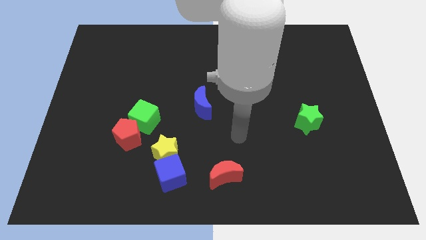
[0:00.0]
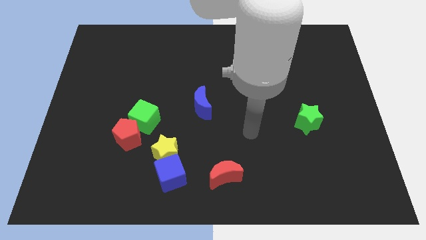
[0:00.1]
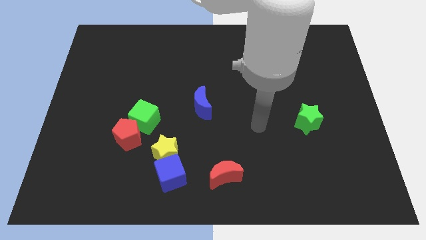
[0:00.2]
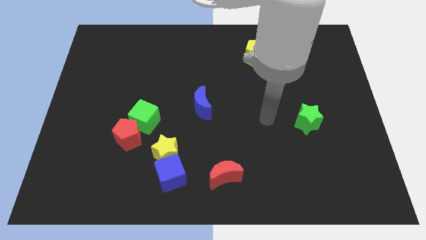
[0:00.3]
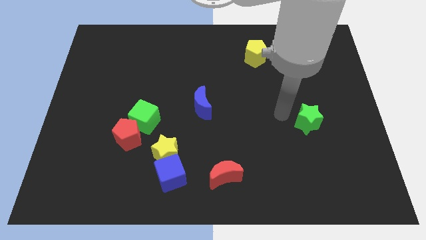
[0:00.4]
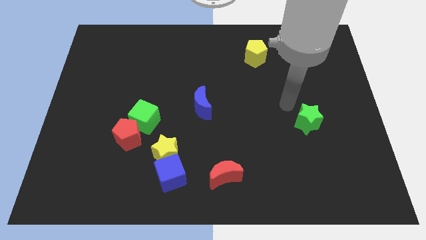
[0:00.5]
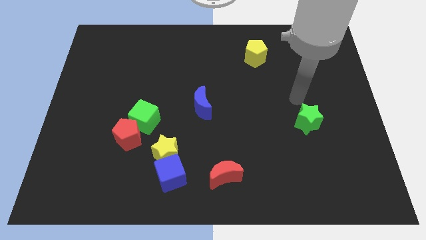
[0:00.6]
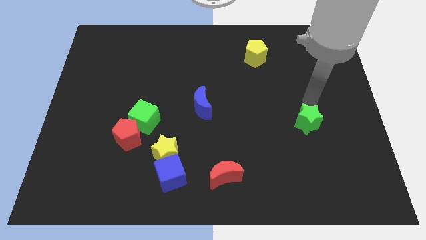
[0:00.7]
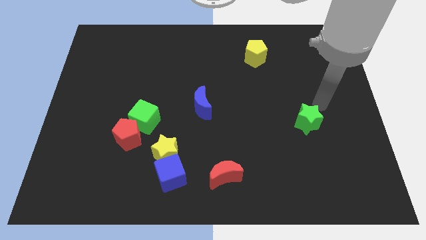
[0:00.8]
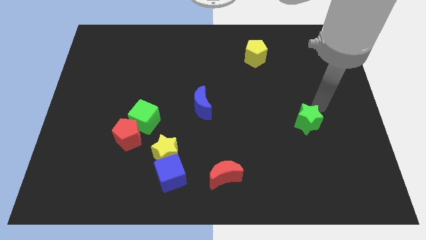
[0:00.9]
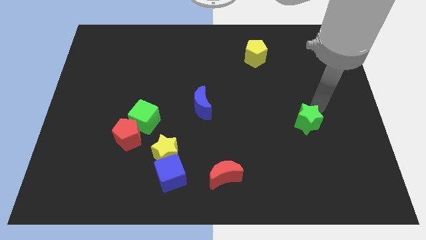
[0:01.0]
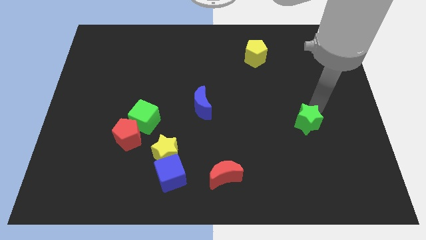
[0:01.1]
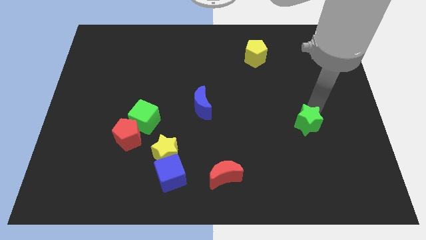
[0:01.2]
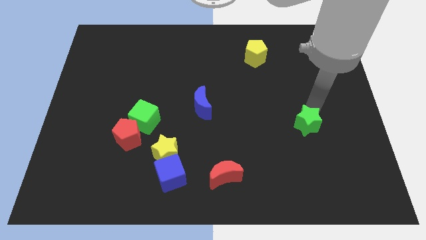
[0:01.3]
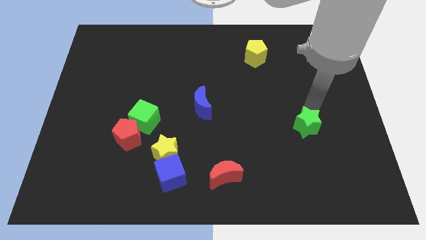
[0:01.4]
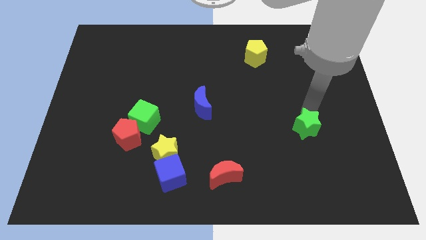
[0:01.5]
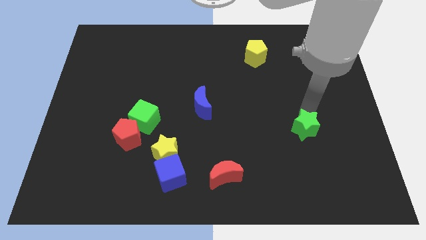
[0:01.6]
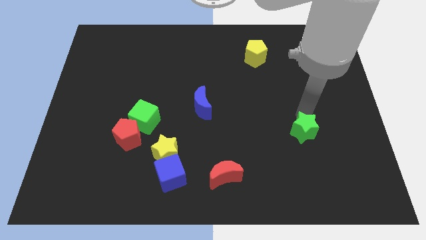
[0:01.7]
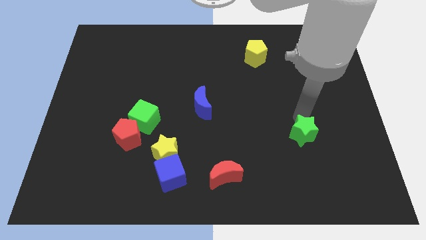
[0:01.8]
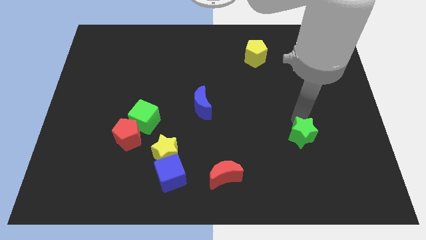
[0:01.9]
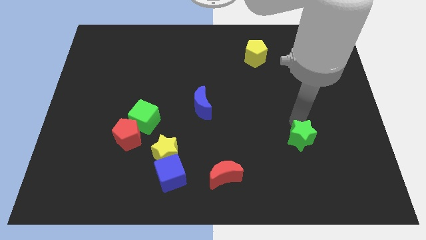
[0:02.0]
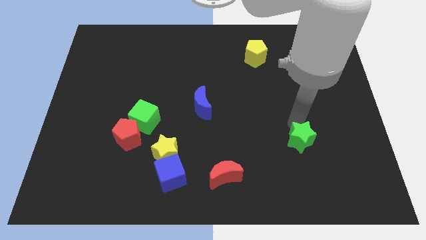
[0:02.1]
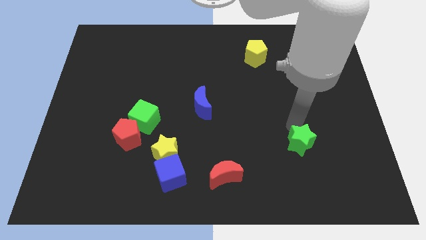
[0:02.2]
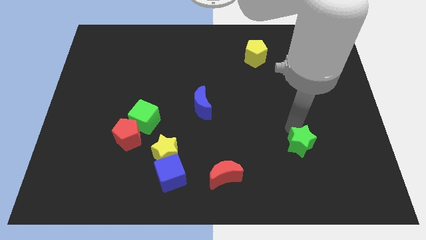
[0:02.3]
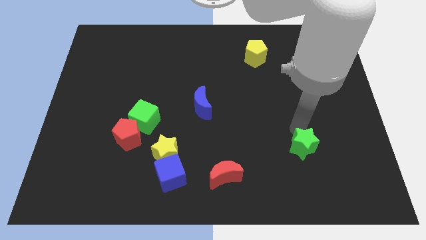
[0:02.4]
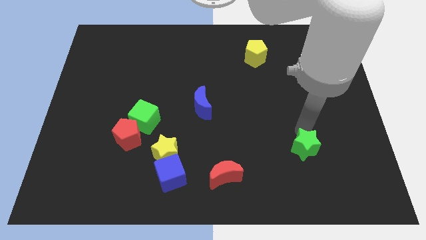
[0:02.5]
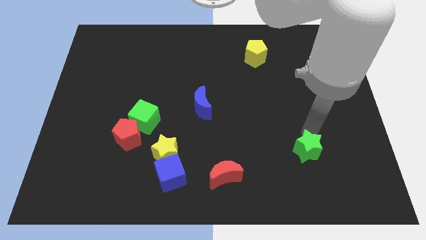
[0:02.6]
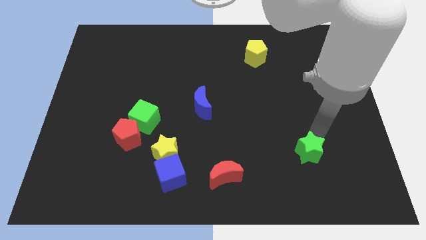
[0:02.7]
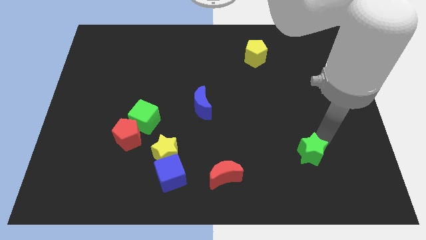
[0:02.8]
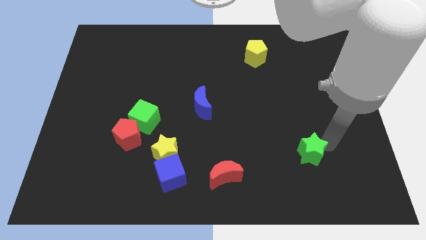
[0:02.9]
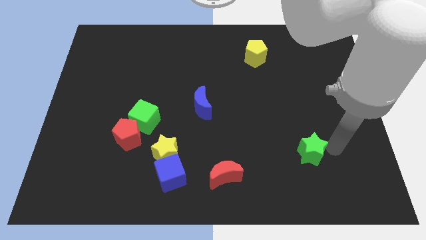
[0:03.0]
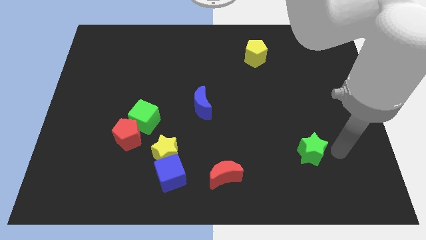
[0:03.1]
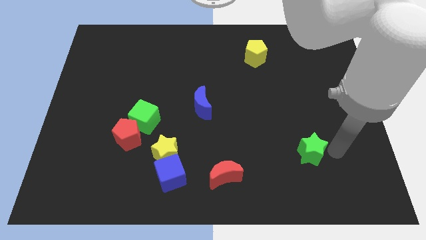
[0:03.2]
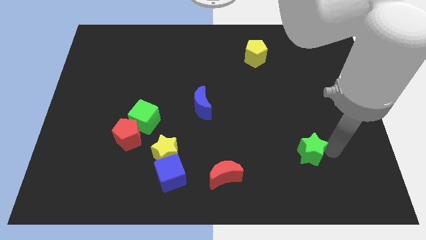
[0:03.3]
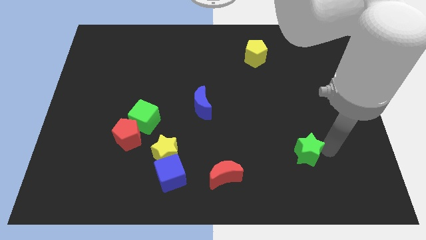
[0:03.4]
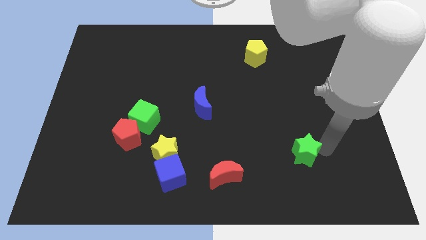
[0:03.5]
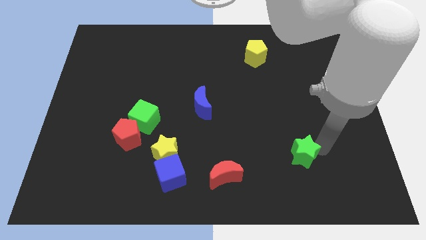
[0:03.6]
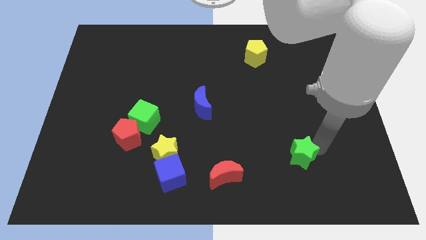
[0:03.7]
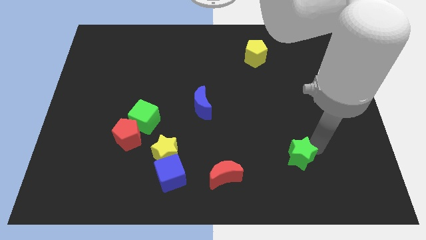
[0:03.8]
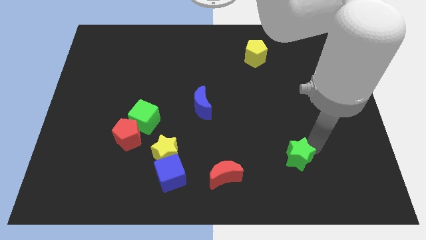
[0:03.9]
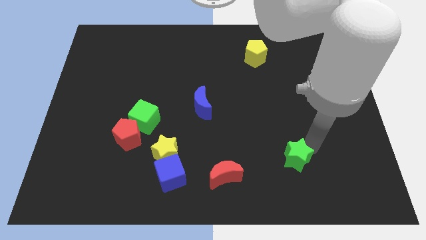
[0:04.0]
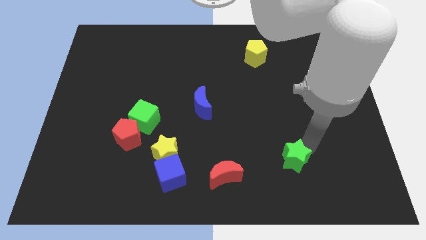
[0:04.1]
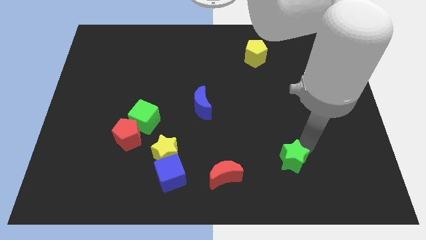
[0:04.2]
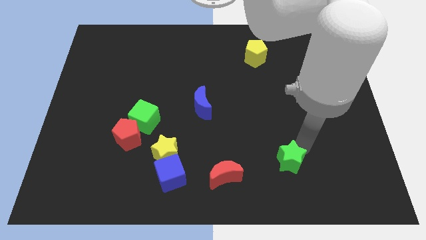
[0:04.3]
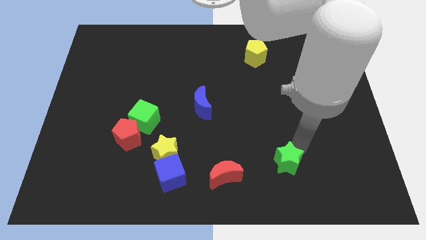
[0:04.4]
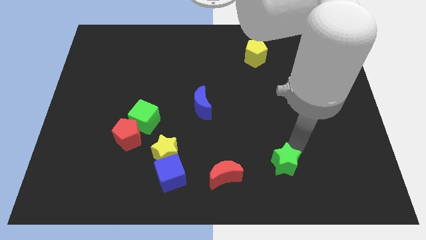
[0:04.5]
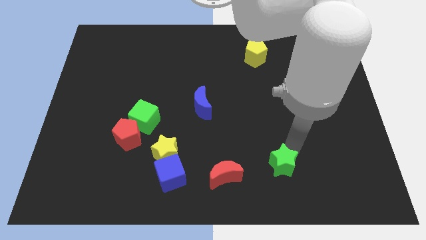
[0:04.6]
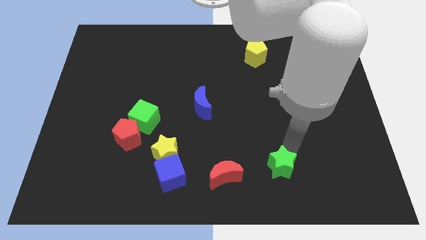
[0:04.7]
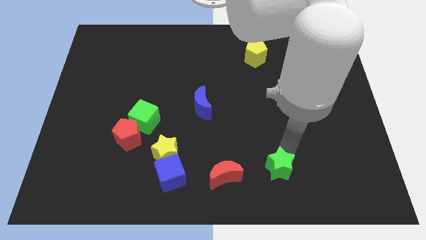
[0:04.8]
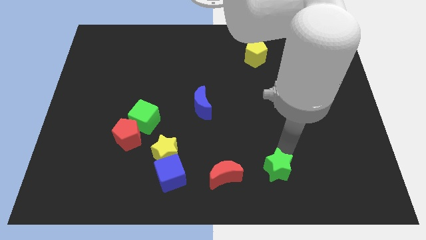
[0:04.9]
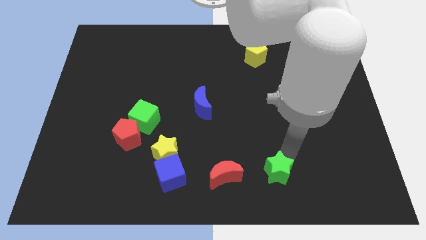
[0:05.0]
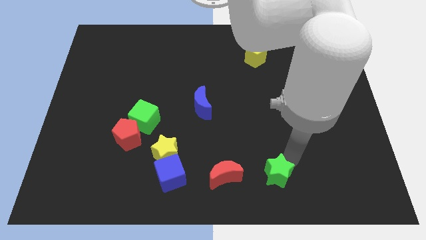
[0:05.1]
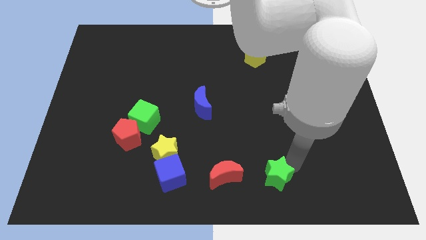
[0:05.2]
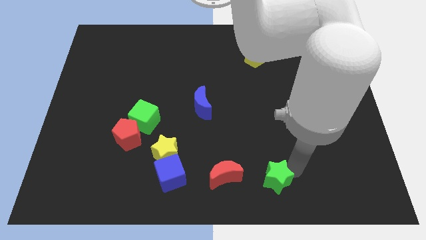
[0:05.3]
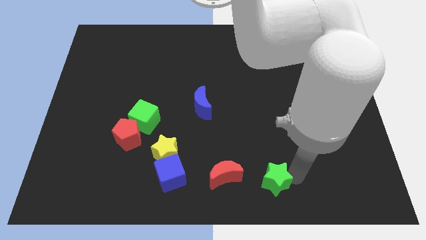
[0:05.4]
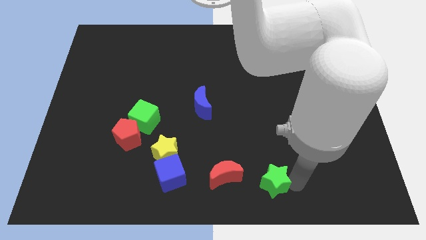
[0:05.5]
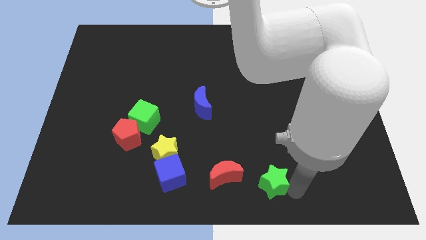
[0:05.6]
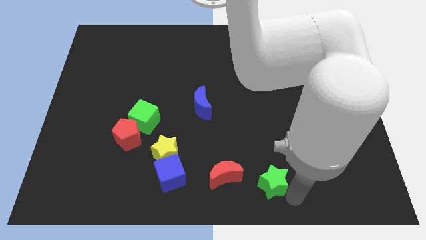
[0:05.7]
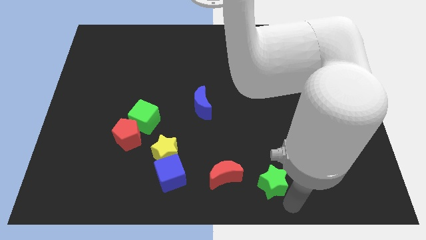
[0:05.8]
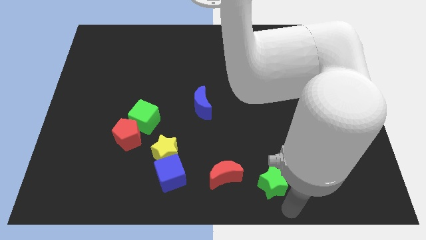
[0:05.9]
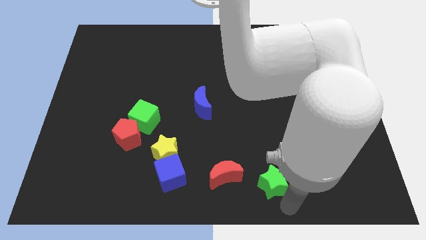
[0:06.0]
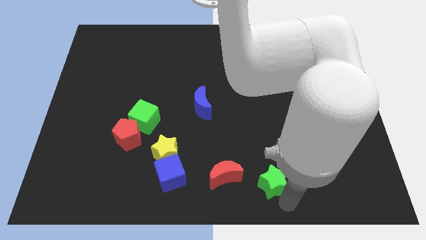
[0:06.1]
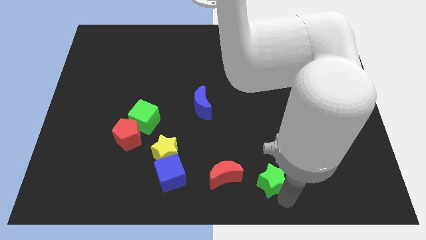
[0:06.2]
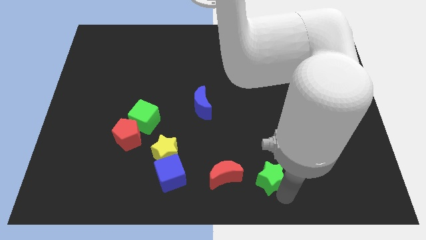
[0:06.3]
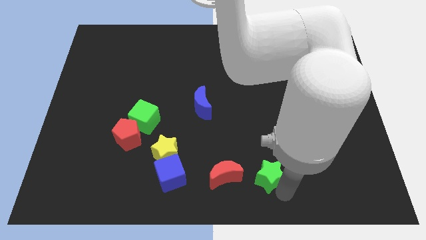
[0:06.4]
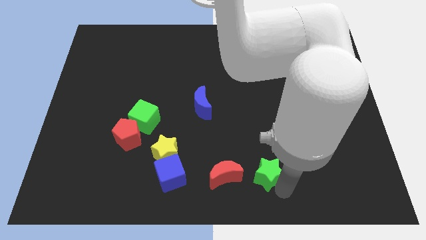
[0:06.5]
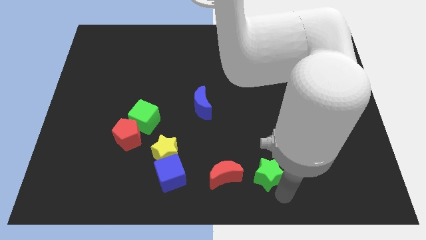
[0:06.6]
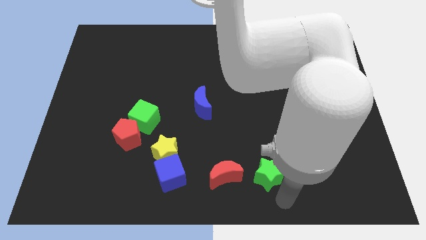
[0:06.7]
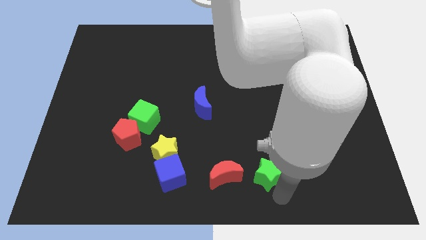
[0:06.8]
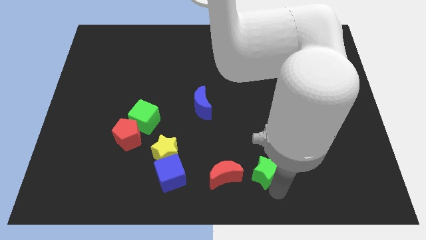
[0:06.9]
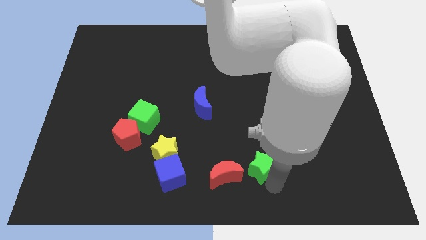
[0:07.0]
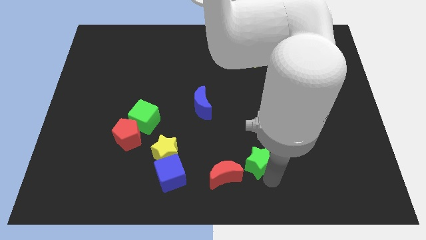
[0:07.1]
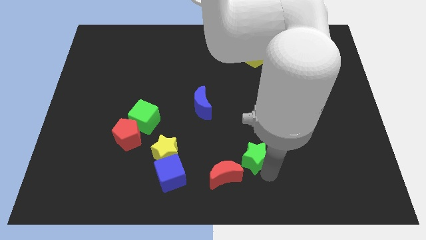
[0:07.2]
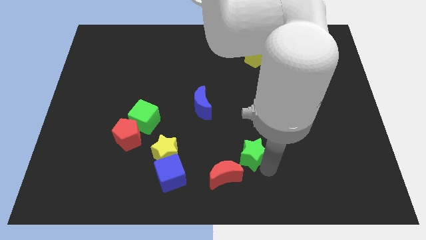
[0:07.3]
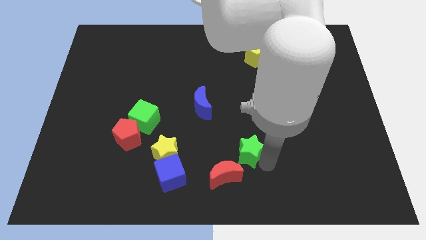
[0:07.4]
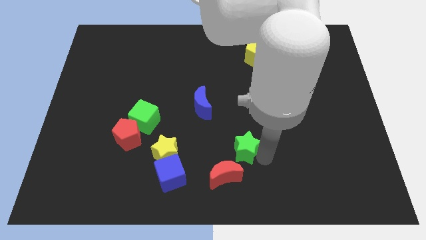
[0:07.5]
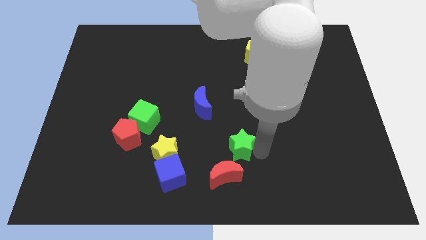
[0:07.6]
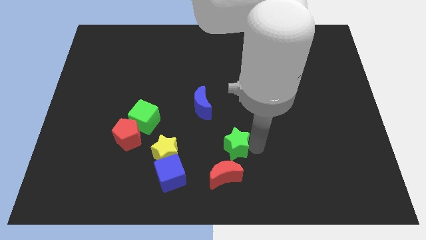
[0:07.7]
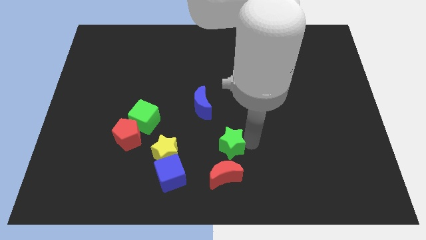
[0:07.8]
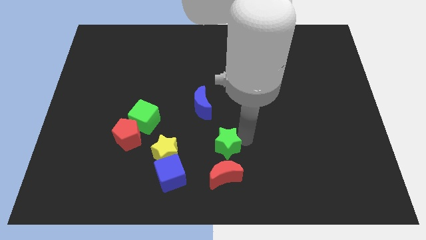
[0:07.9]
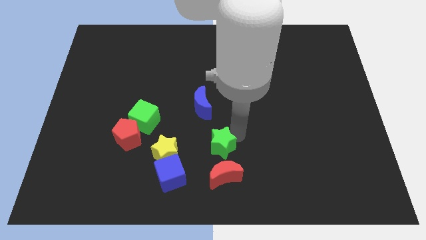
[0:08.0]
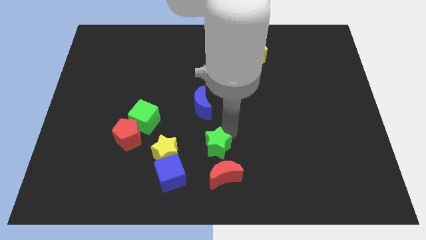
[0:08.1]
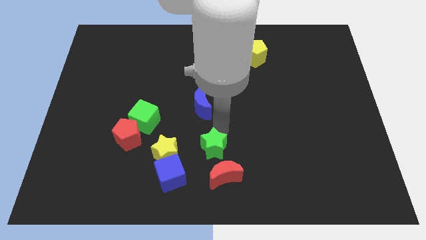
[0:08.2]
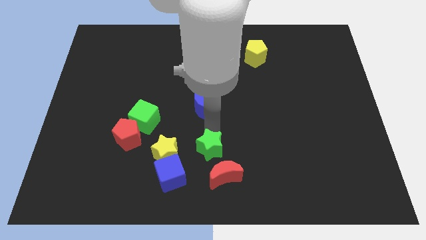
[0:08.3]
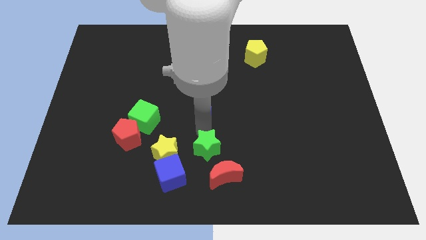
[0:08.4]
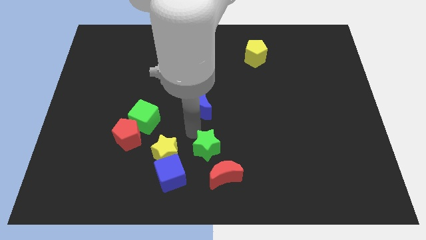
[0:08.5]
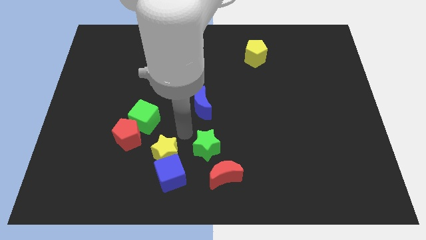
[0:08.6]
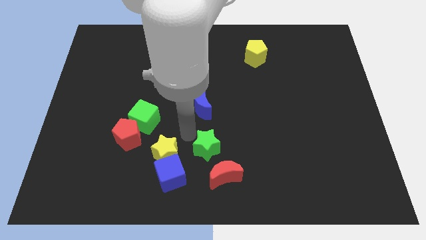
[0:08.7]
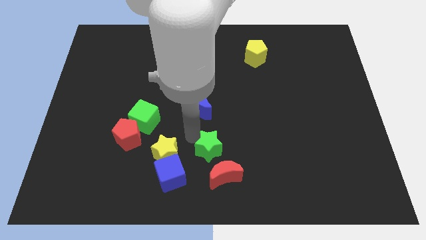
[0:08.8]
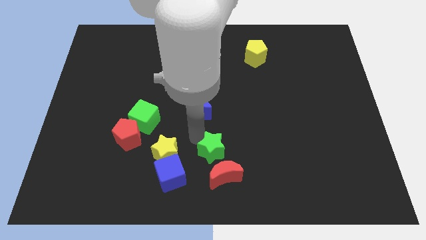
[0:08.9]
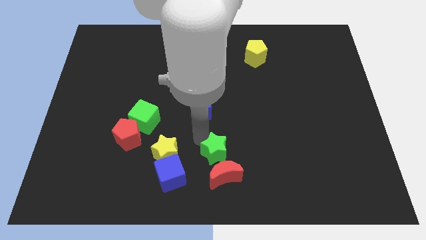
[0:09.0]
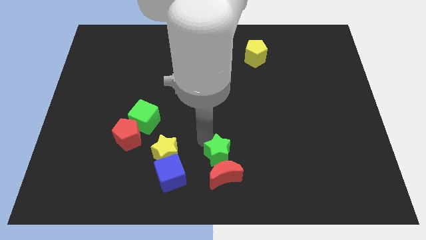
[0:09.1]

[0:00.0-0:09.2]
put the green star just right of the blue cube
